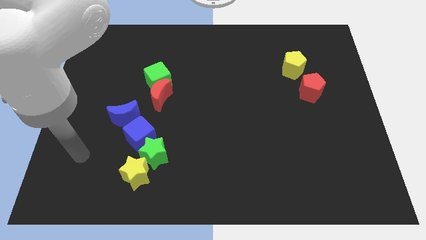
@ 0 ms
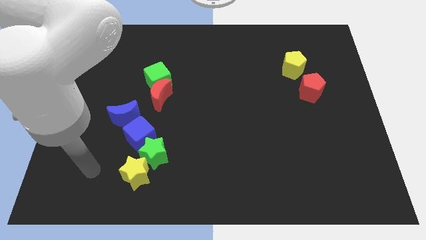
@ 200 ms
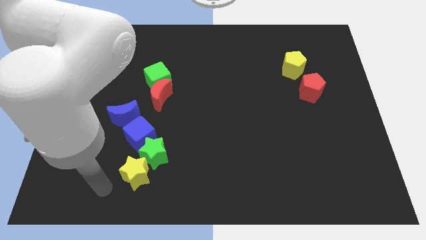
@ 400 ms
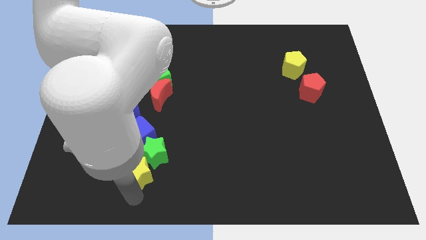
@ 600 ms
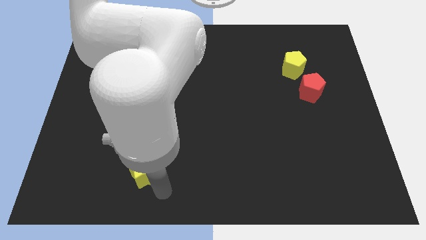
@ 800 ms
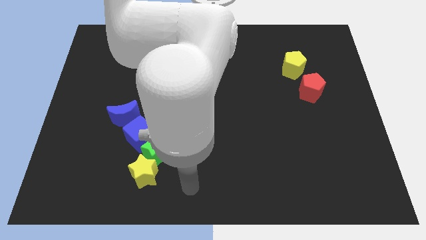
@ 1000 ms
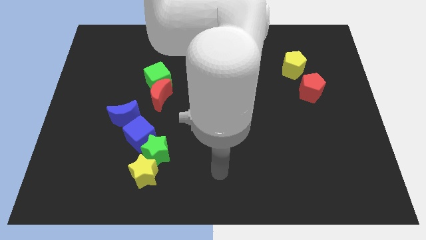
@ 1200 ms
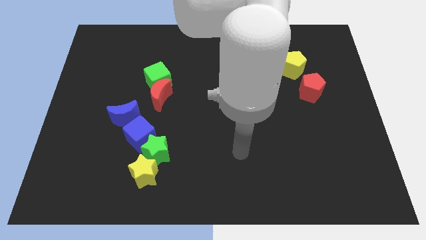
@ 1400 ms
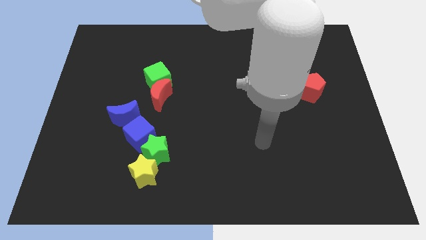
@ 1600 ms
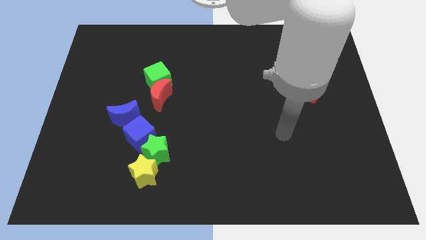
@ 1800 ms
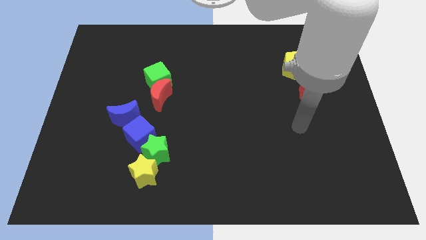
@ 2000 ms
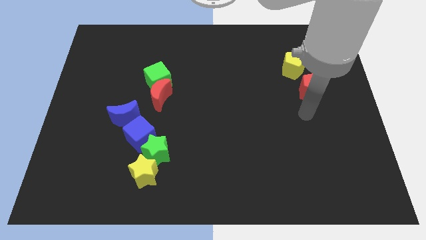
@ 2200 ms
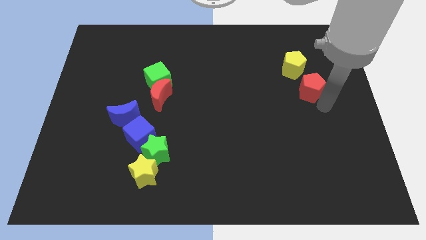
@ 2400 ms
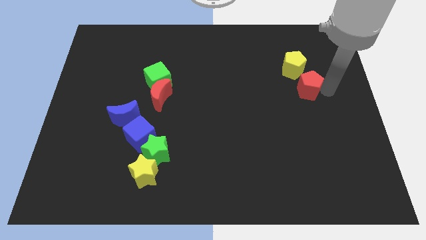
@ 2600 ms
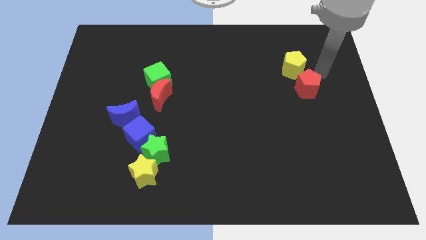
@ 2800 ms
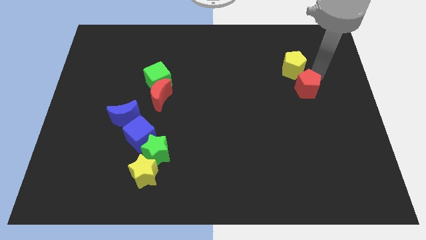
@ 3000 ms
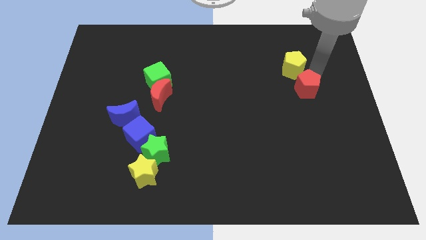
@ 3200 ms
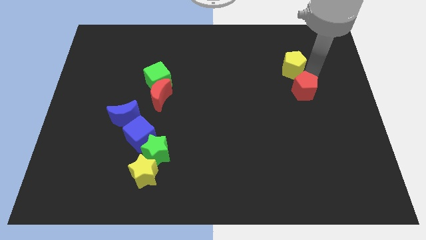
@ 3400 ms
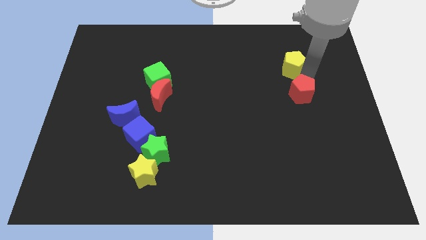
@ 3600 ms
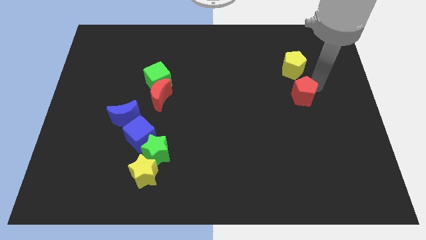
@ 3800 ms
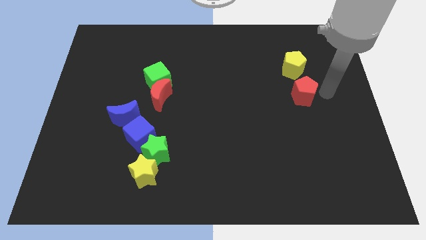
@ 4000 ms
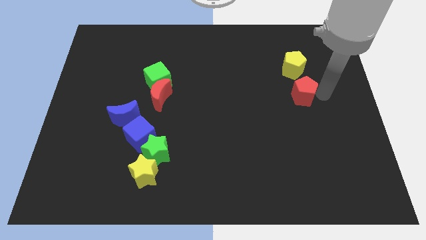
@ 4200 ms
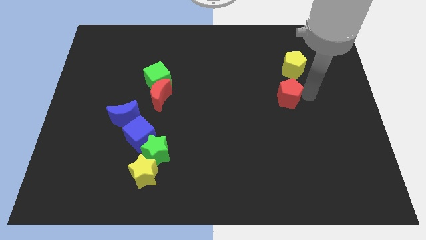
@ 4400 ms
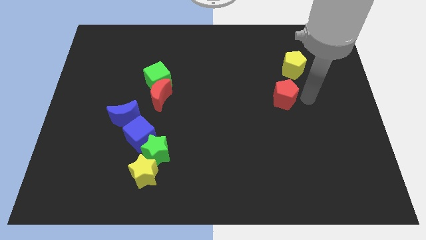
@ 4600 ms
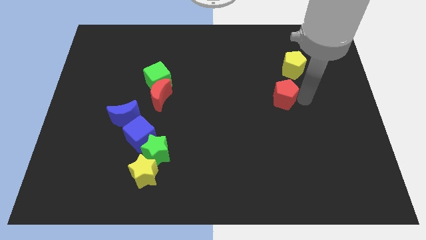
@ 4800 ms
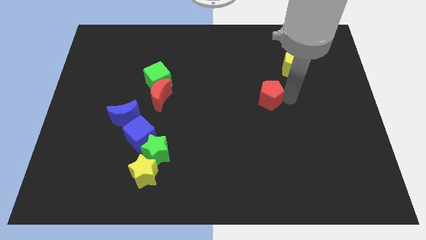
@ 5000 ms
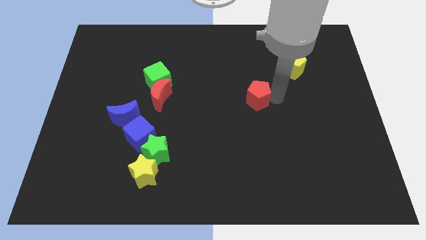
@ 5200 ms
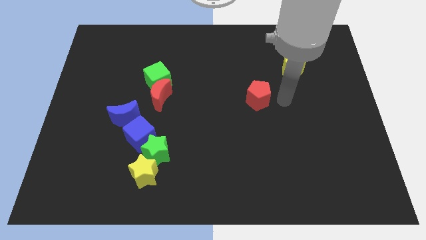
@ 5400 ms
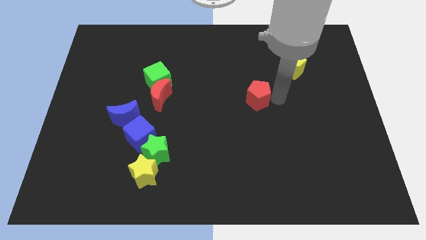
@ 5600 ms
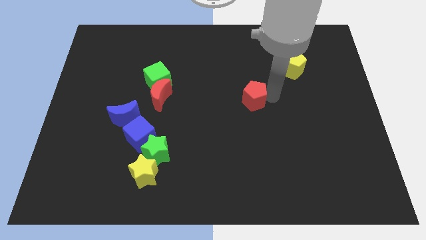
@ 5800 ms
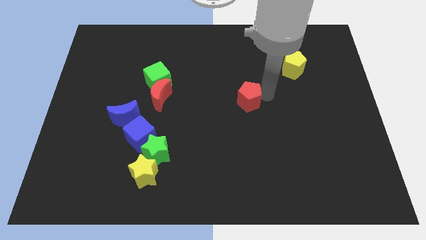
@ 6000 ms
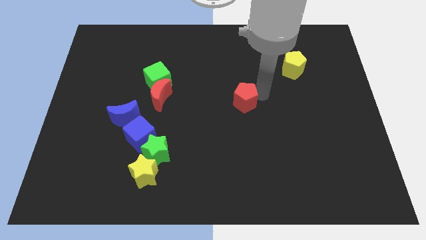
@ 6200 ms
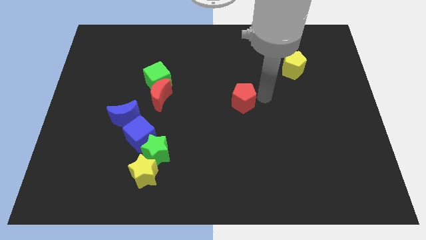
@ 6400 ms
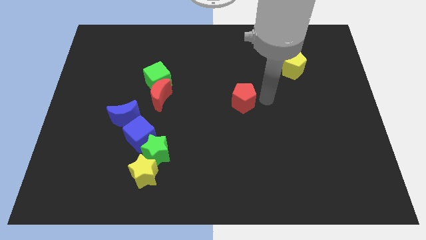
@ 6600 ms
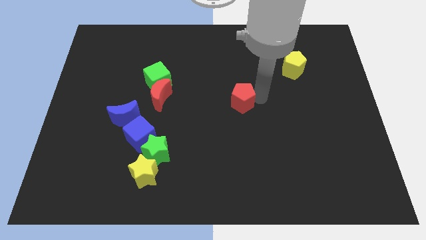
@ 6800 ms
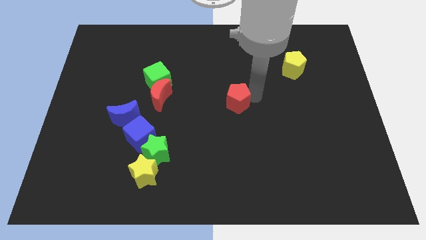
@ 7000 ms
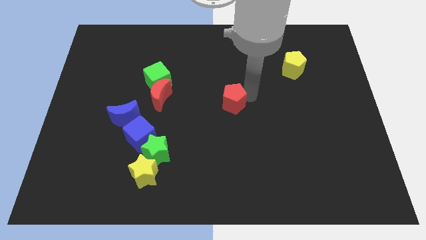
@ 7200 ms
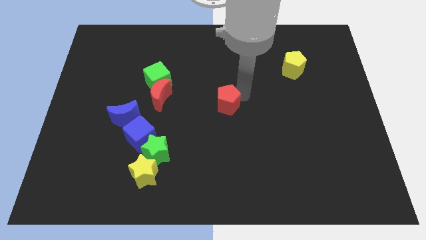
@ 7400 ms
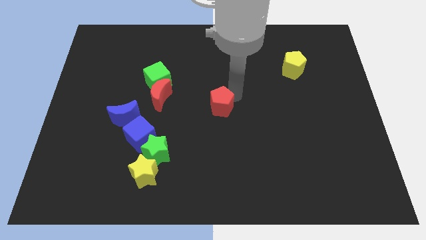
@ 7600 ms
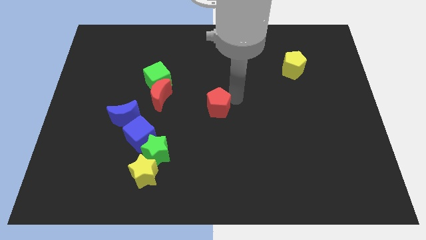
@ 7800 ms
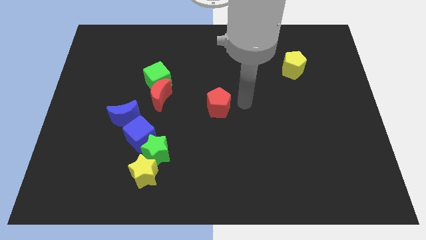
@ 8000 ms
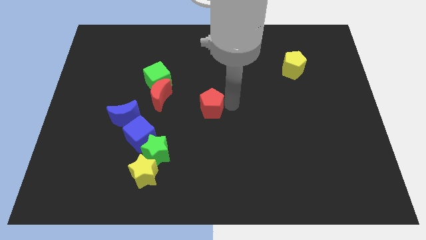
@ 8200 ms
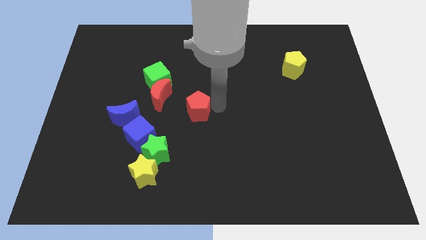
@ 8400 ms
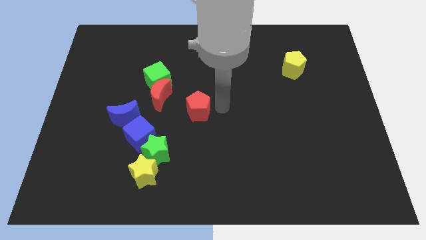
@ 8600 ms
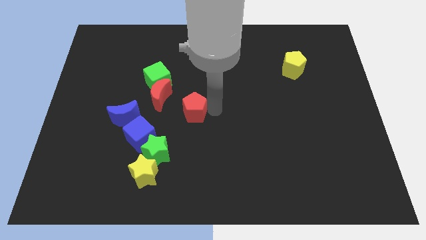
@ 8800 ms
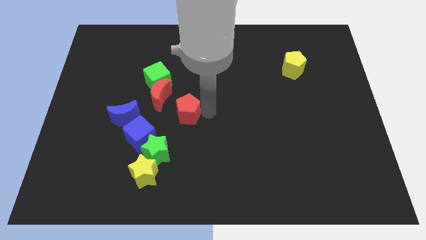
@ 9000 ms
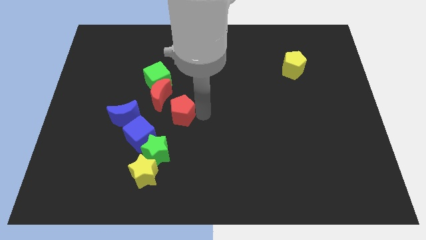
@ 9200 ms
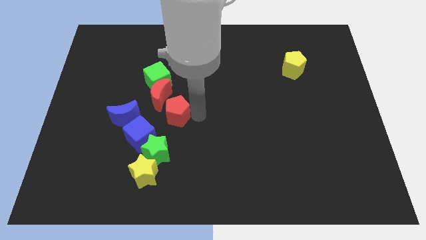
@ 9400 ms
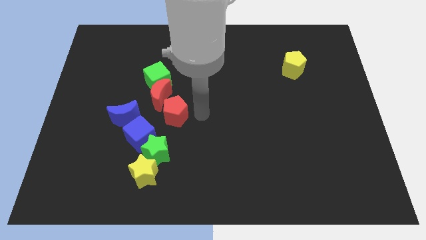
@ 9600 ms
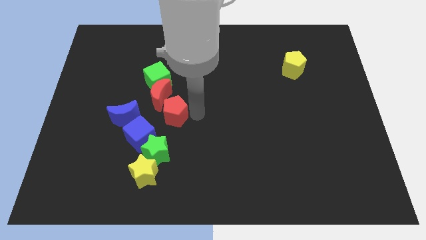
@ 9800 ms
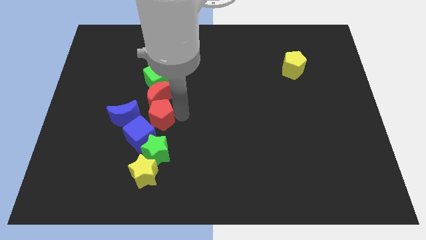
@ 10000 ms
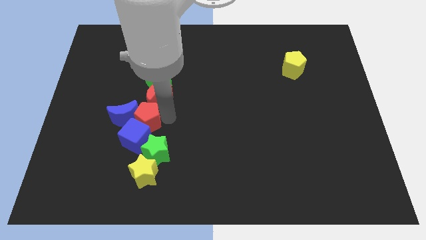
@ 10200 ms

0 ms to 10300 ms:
move the red pentagon close to the blue moon

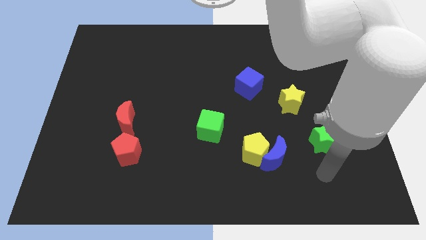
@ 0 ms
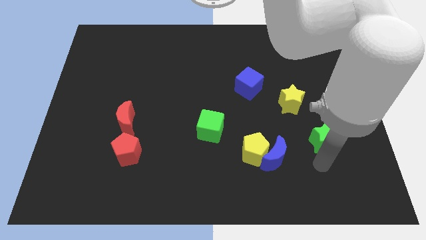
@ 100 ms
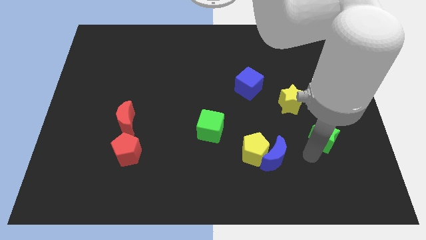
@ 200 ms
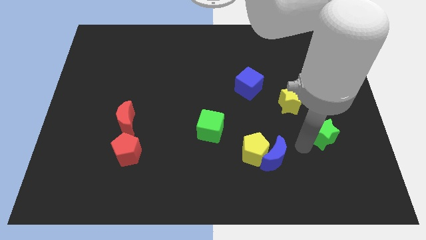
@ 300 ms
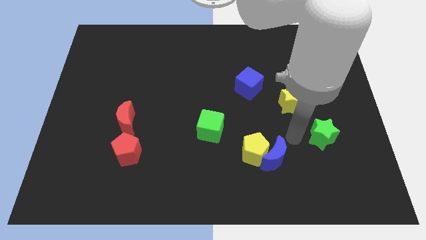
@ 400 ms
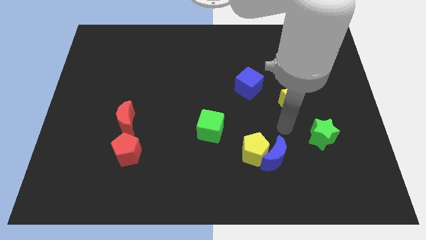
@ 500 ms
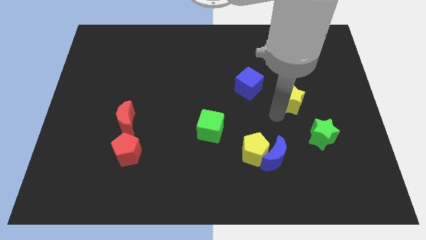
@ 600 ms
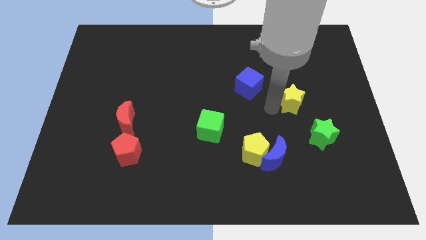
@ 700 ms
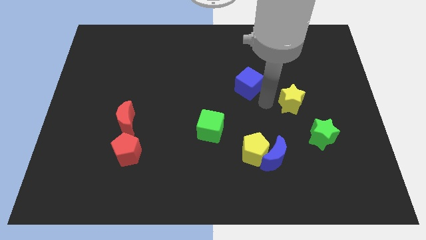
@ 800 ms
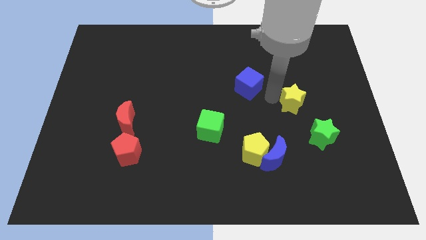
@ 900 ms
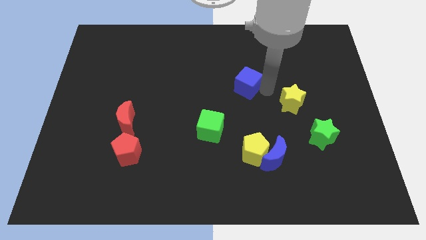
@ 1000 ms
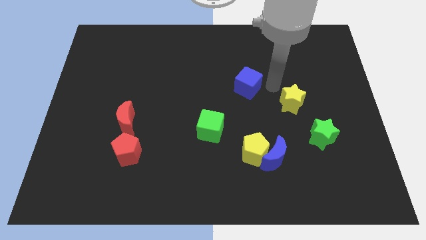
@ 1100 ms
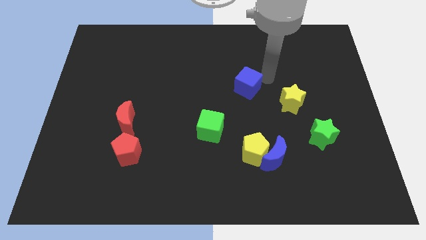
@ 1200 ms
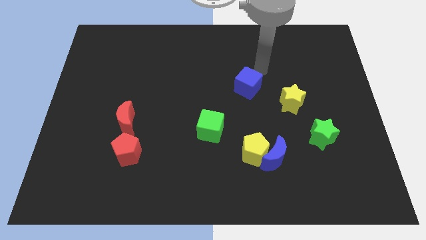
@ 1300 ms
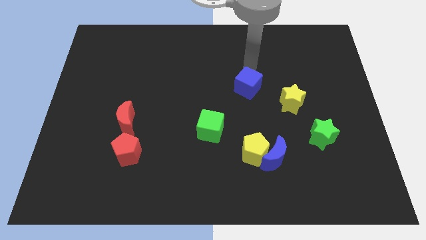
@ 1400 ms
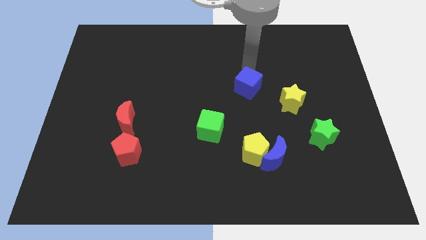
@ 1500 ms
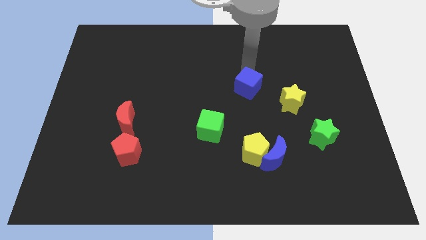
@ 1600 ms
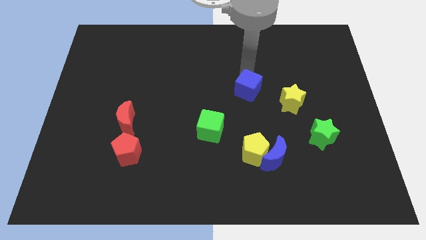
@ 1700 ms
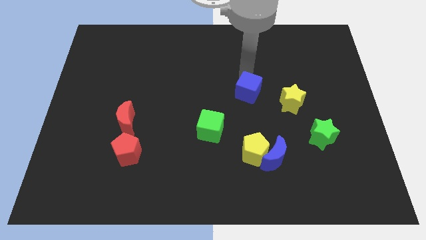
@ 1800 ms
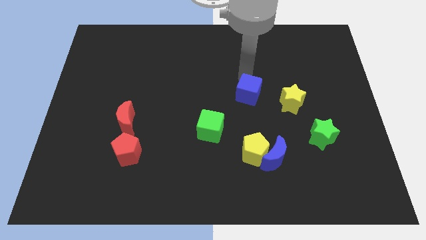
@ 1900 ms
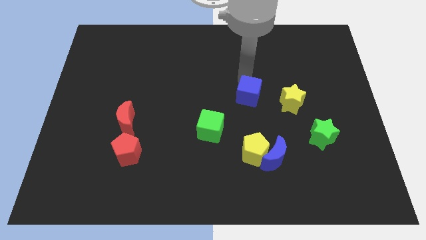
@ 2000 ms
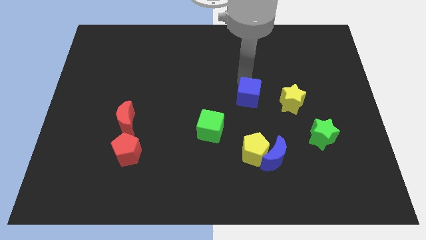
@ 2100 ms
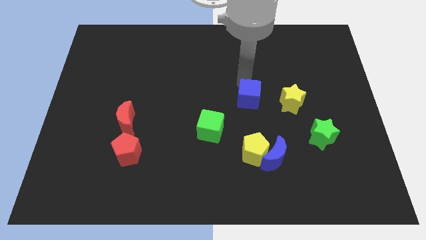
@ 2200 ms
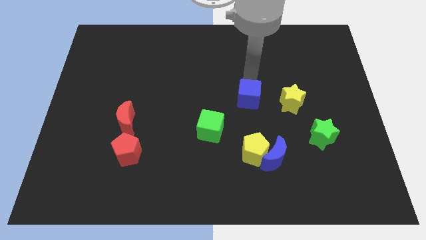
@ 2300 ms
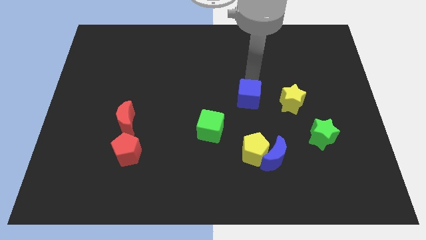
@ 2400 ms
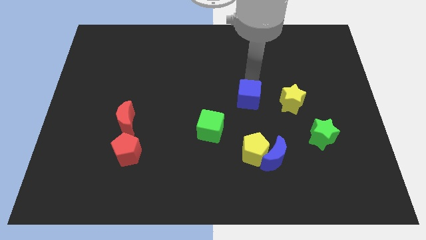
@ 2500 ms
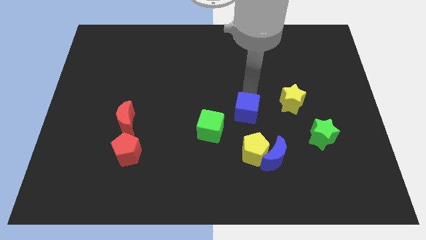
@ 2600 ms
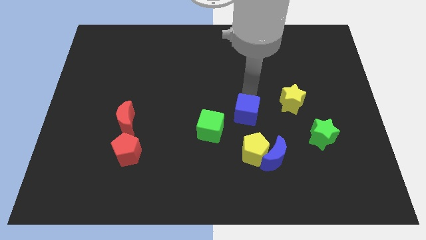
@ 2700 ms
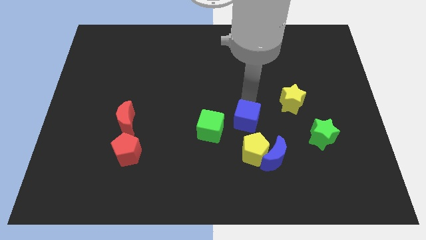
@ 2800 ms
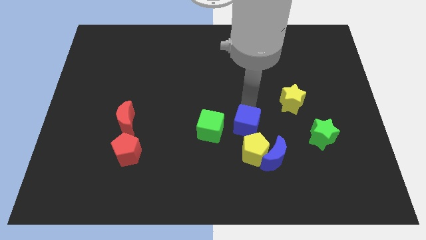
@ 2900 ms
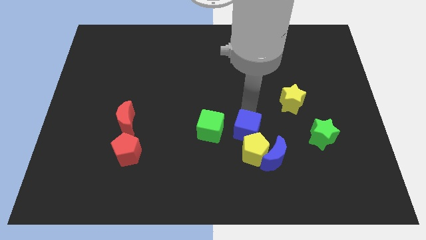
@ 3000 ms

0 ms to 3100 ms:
slide the blue cube next to the yellow pentagon
